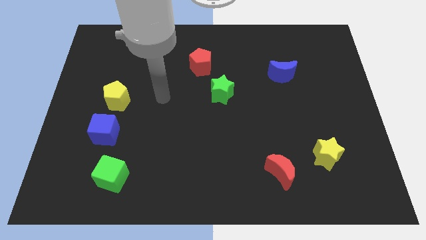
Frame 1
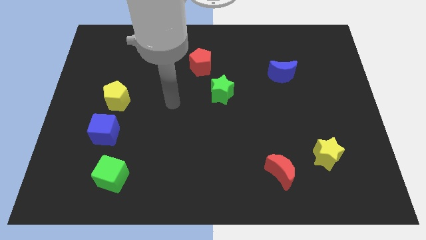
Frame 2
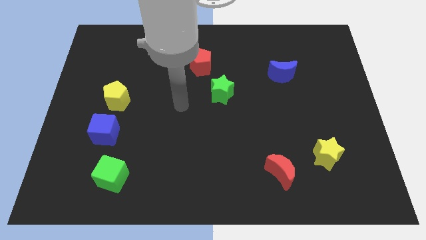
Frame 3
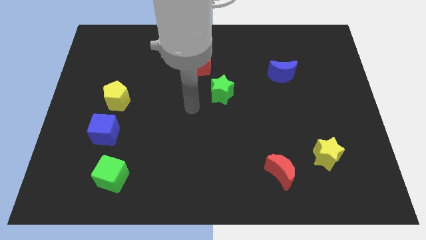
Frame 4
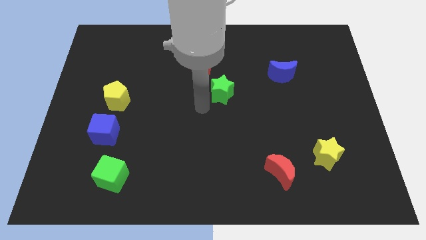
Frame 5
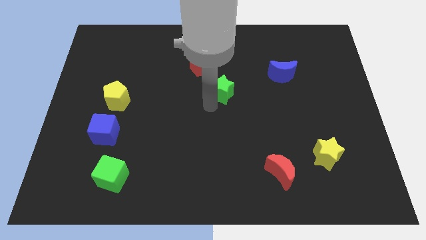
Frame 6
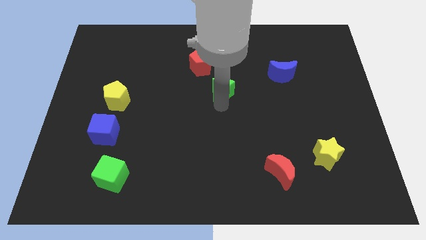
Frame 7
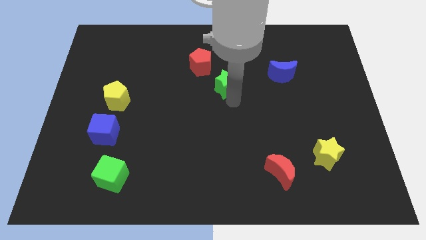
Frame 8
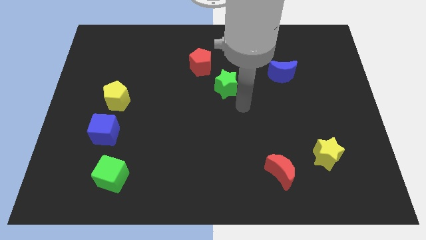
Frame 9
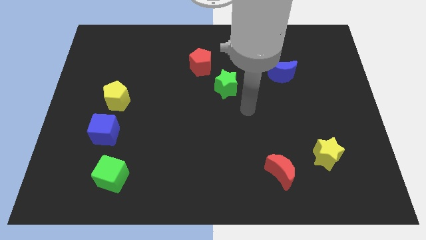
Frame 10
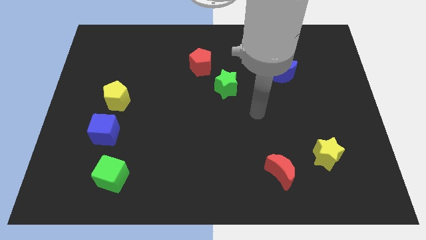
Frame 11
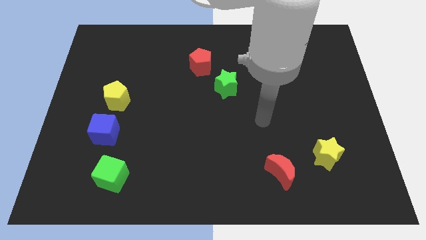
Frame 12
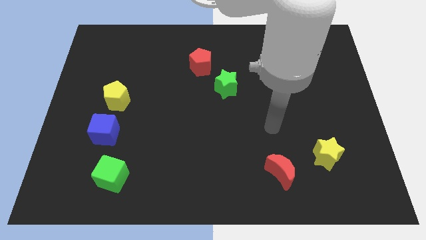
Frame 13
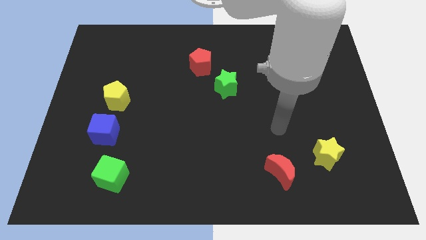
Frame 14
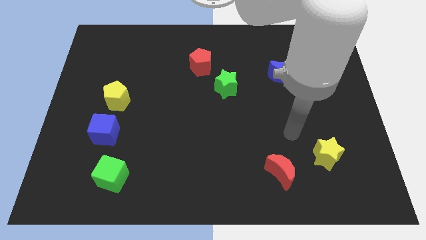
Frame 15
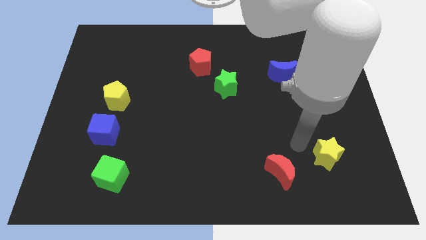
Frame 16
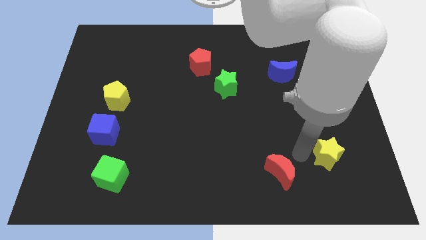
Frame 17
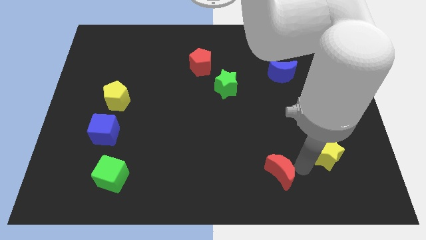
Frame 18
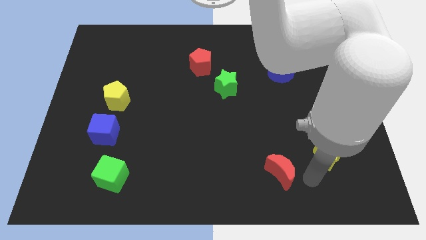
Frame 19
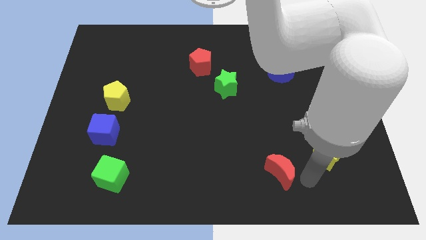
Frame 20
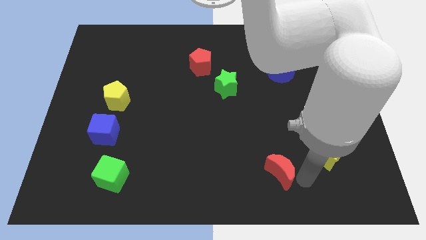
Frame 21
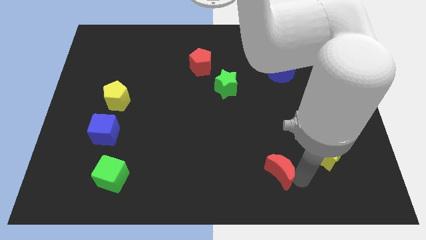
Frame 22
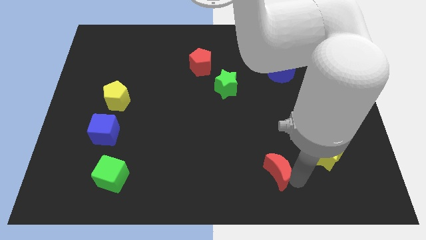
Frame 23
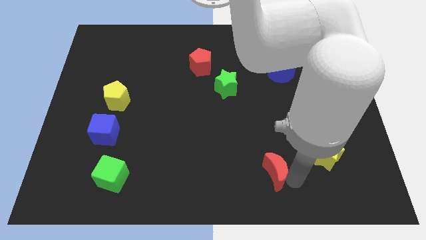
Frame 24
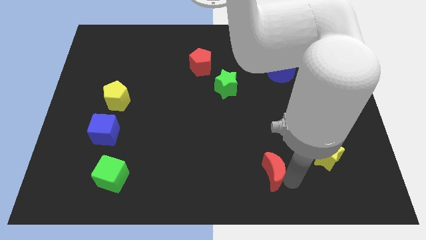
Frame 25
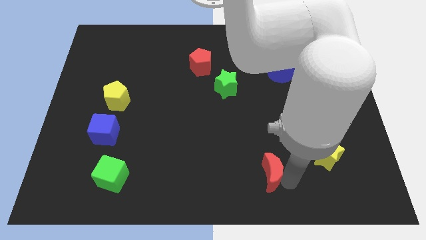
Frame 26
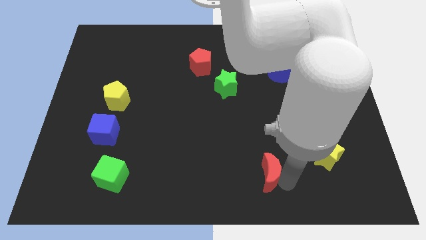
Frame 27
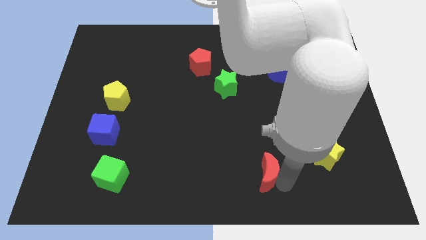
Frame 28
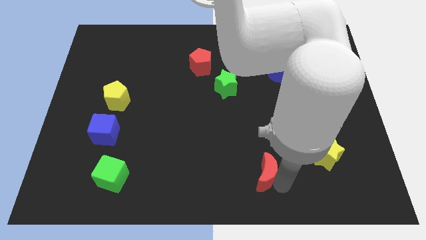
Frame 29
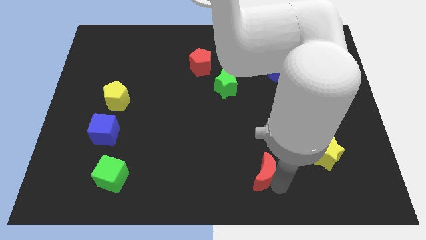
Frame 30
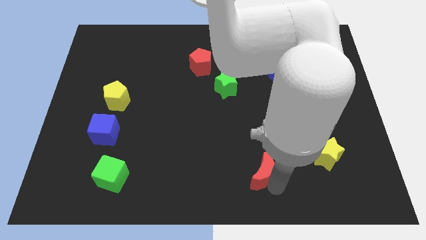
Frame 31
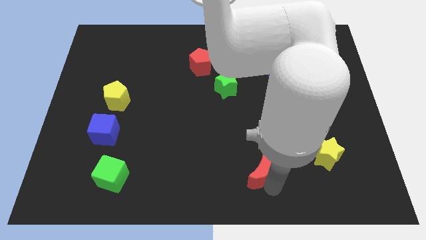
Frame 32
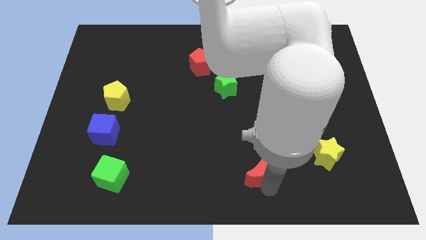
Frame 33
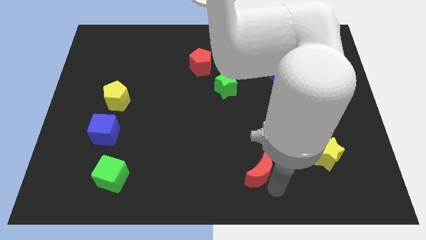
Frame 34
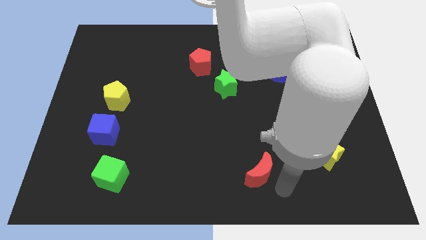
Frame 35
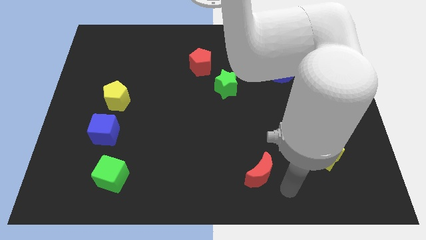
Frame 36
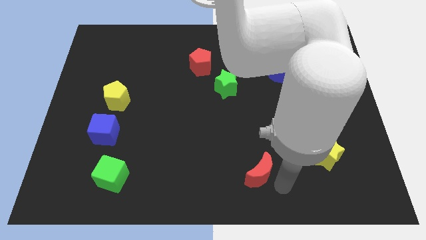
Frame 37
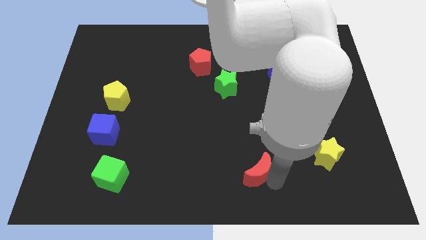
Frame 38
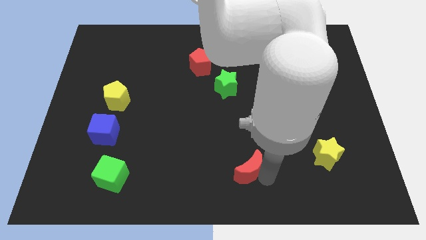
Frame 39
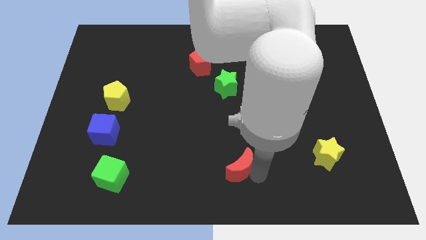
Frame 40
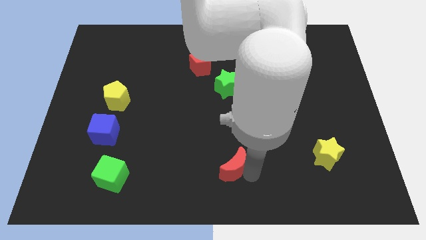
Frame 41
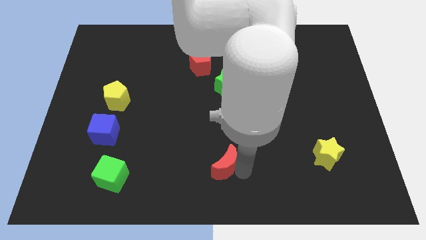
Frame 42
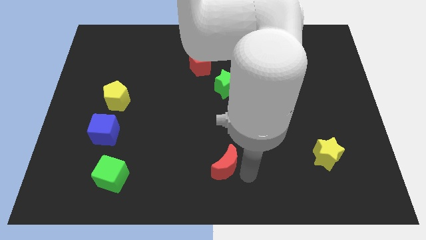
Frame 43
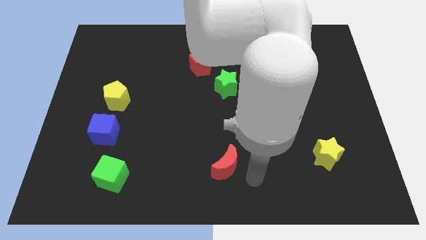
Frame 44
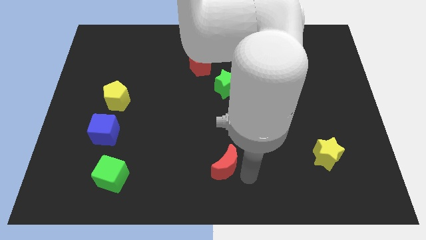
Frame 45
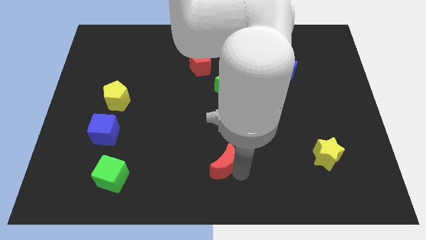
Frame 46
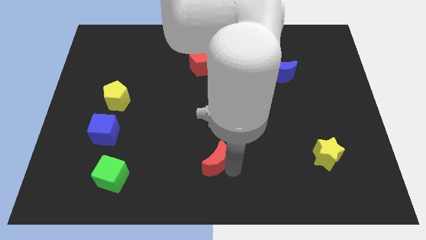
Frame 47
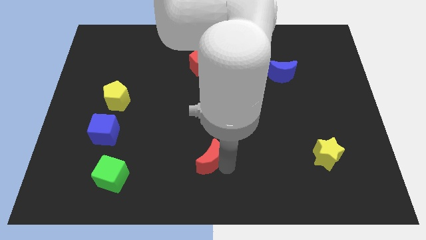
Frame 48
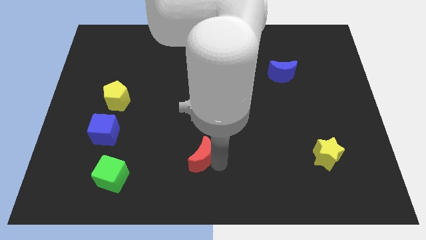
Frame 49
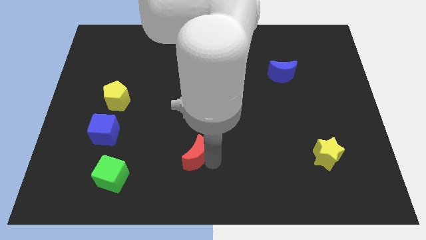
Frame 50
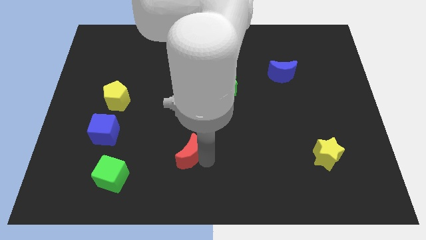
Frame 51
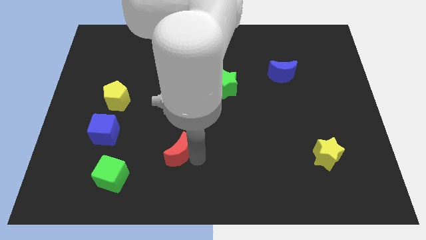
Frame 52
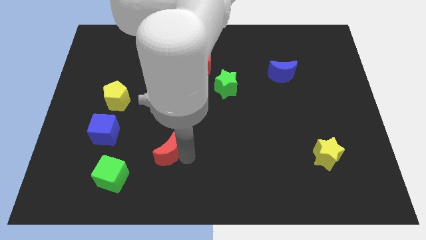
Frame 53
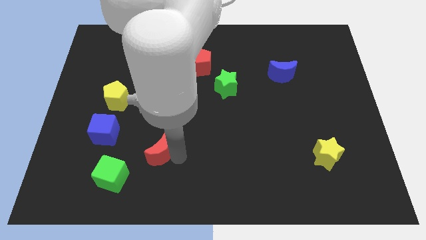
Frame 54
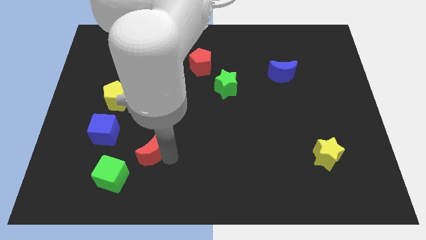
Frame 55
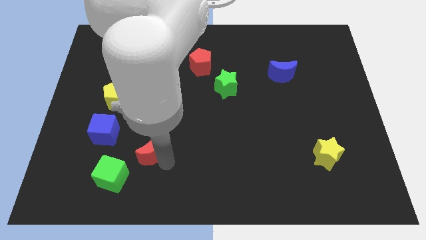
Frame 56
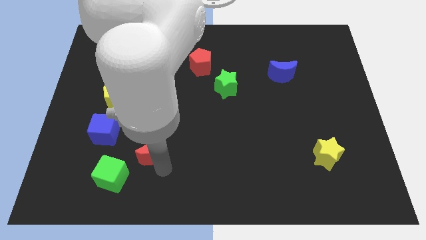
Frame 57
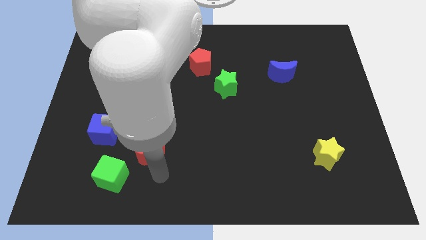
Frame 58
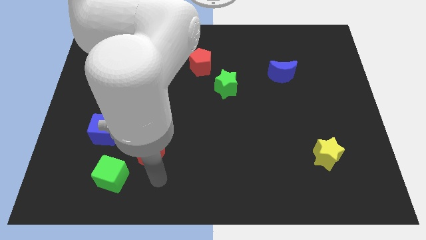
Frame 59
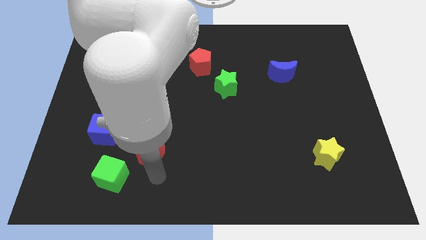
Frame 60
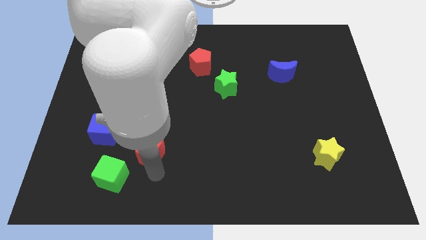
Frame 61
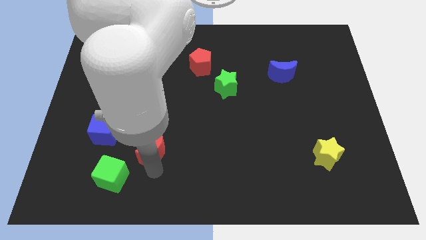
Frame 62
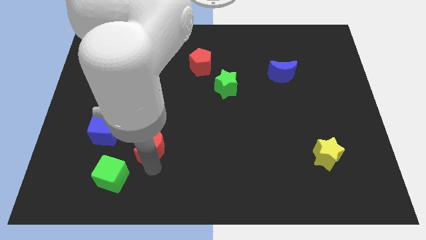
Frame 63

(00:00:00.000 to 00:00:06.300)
slide the red moon to the right side of the blue cube

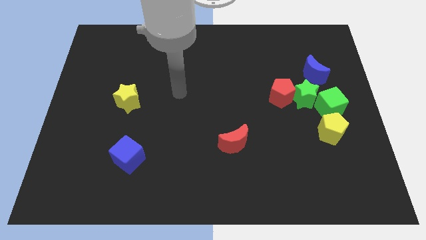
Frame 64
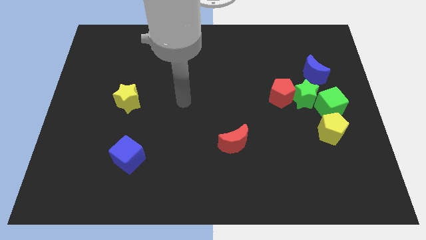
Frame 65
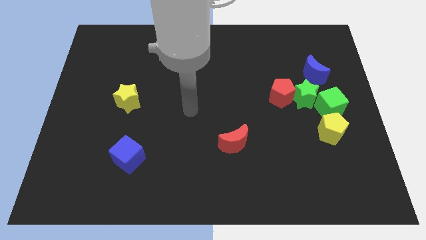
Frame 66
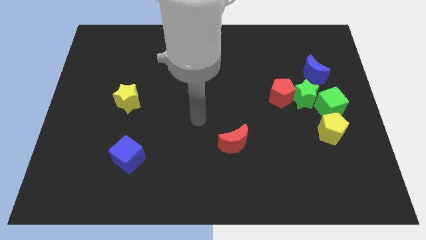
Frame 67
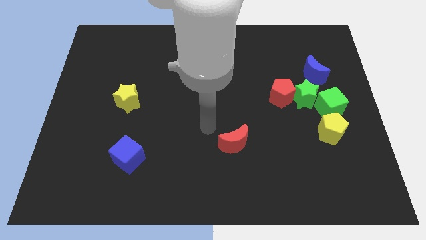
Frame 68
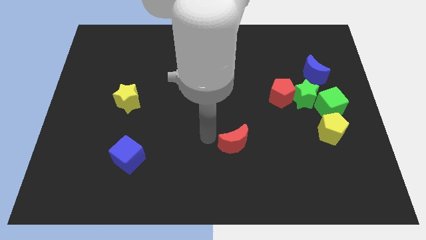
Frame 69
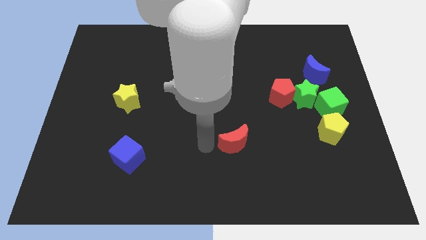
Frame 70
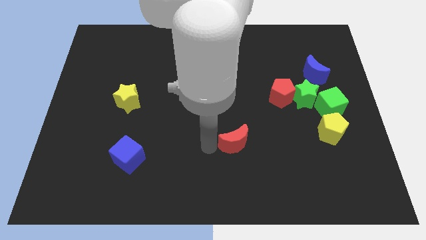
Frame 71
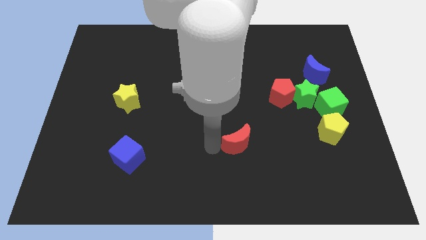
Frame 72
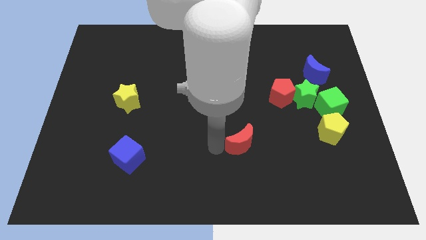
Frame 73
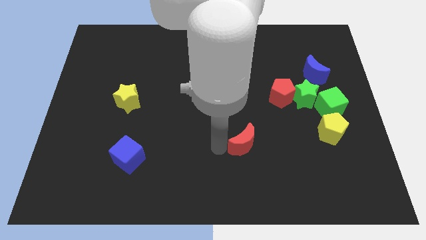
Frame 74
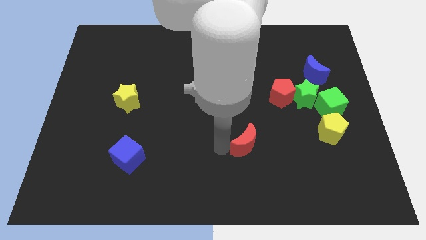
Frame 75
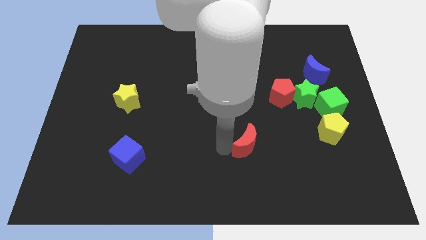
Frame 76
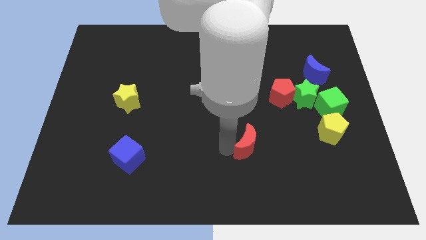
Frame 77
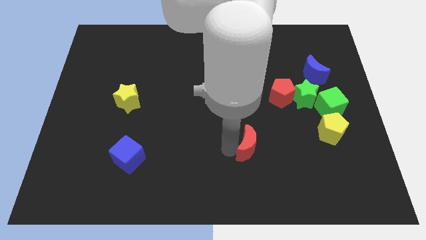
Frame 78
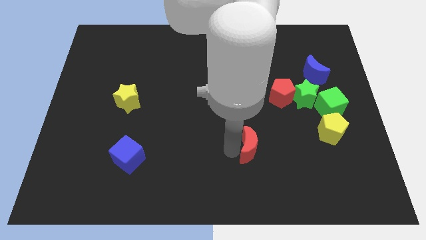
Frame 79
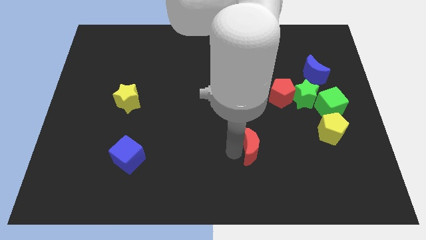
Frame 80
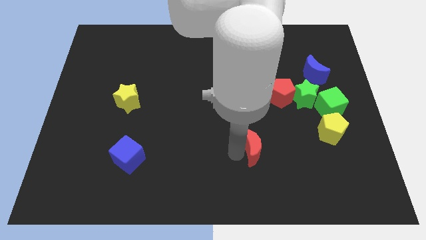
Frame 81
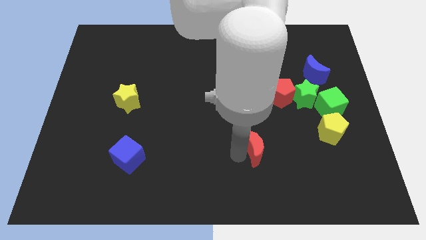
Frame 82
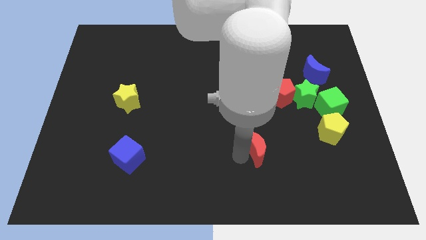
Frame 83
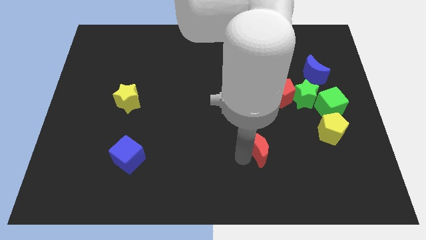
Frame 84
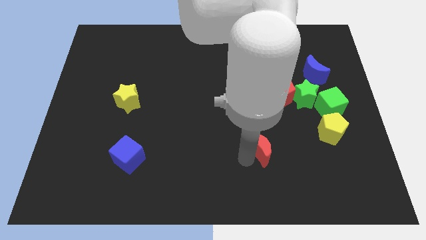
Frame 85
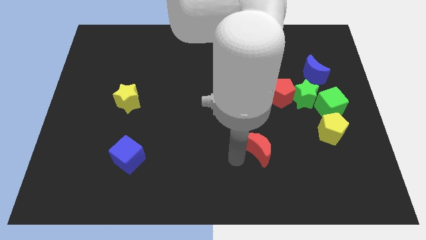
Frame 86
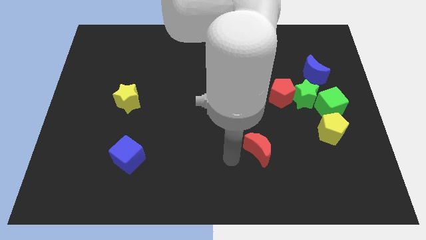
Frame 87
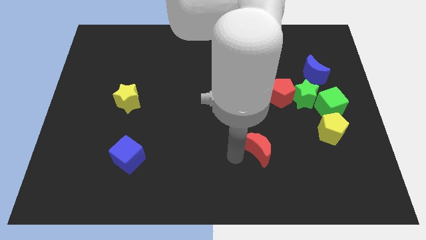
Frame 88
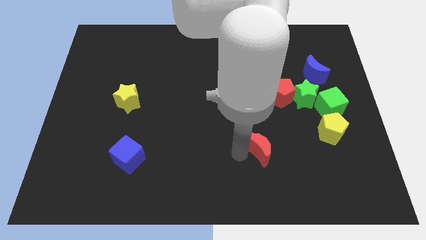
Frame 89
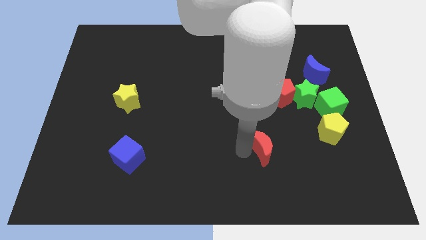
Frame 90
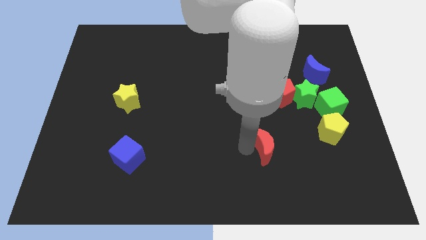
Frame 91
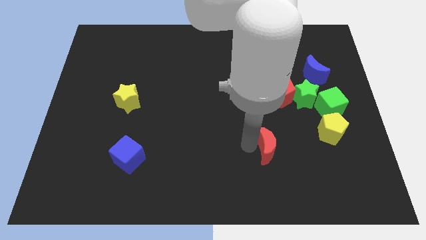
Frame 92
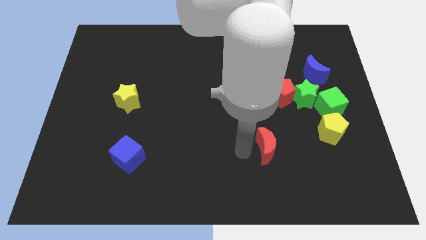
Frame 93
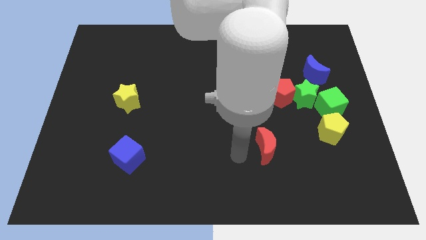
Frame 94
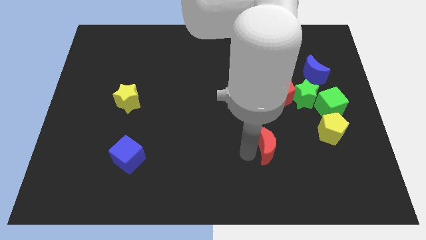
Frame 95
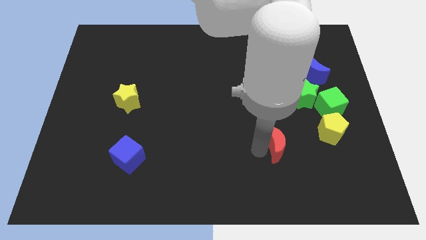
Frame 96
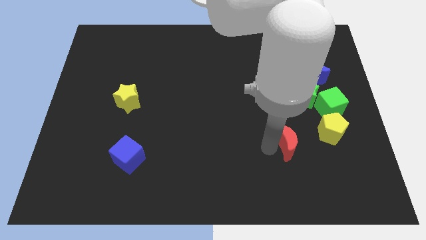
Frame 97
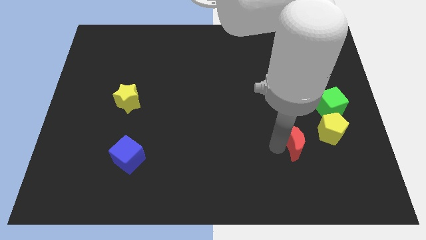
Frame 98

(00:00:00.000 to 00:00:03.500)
move the red moon below the green star
